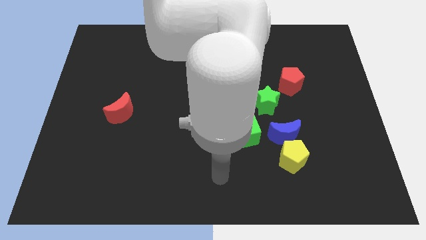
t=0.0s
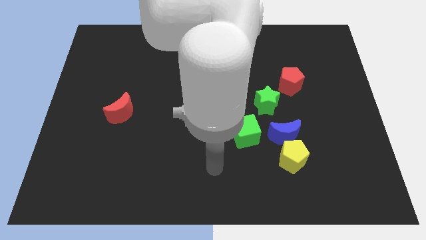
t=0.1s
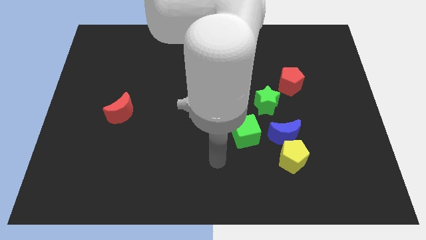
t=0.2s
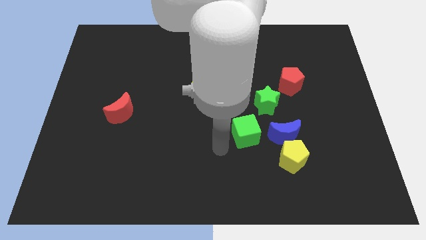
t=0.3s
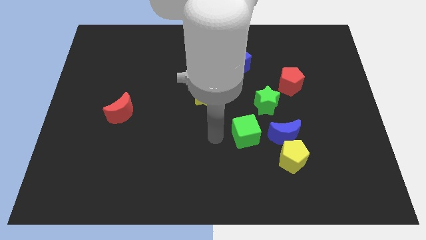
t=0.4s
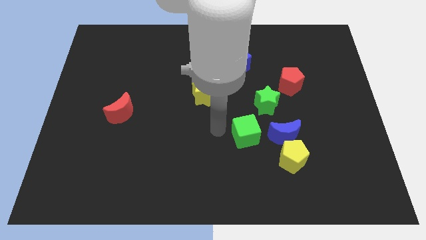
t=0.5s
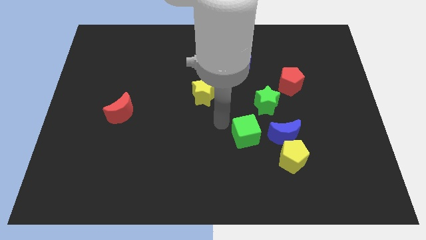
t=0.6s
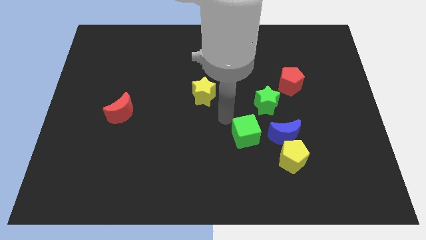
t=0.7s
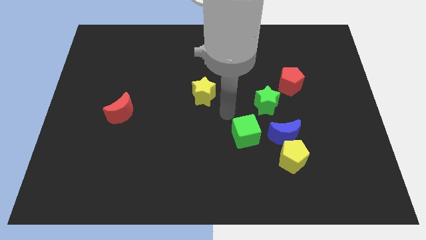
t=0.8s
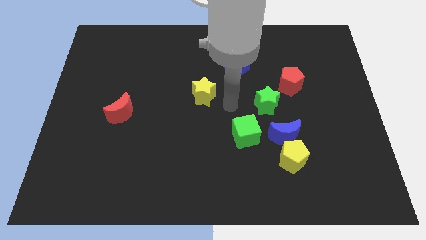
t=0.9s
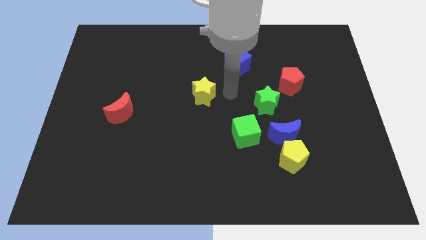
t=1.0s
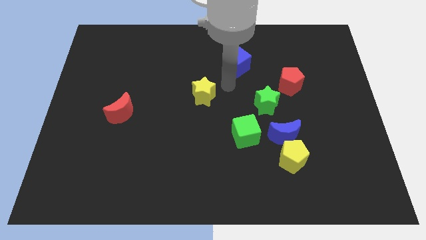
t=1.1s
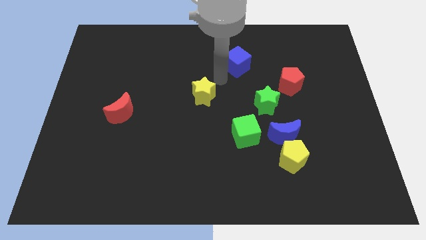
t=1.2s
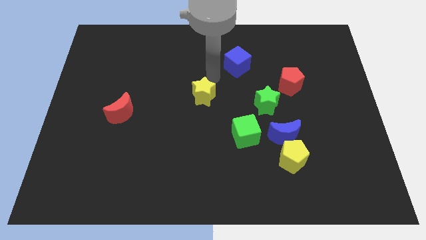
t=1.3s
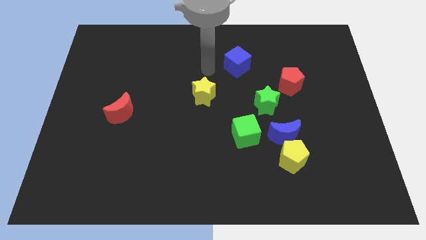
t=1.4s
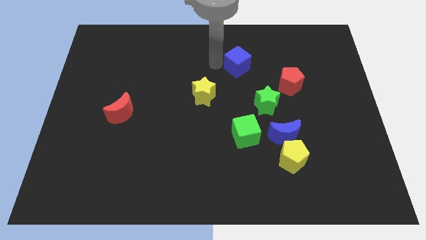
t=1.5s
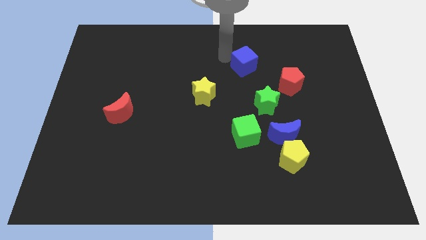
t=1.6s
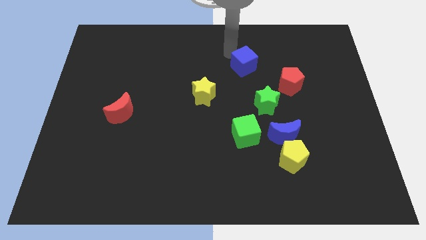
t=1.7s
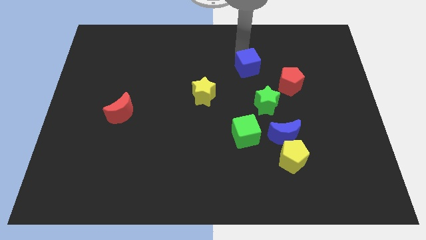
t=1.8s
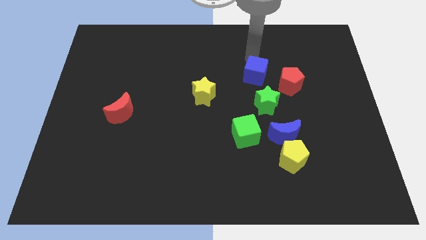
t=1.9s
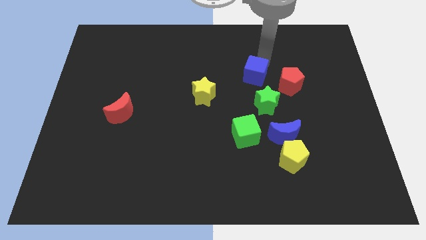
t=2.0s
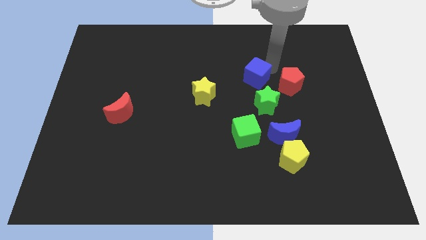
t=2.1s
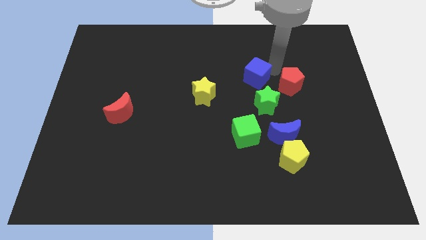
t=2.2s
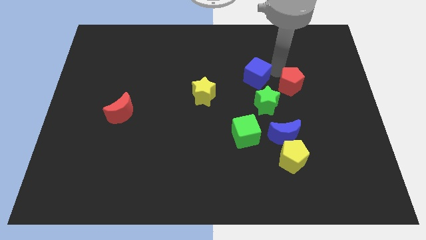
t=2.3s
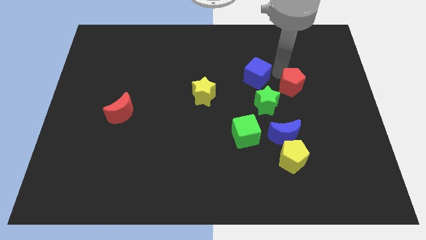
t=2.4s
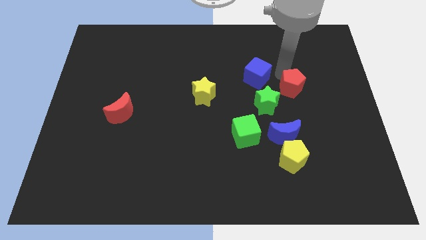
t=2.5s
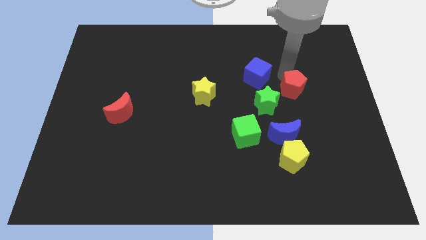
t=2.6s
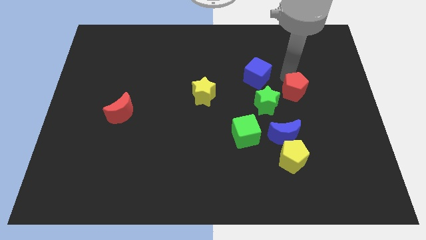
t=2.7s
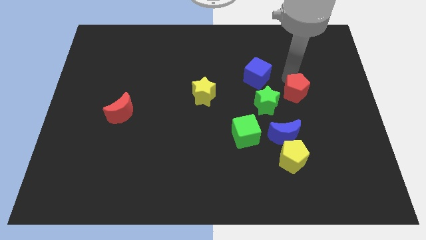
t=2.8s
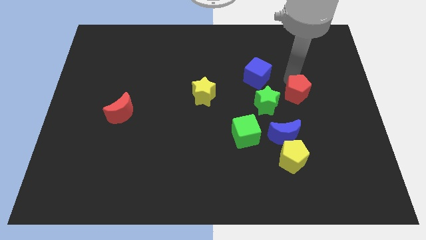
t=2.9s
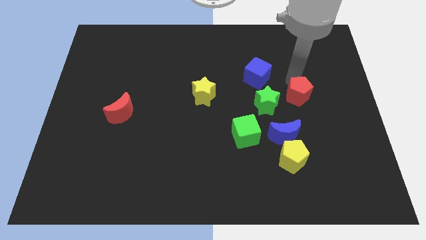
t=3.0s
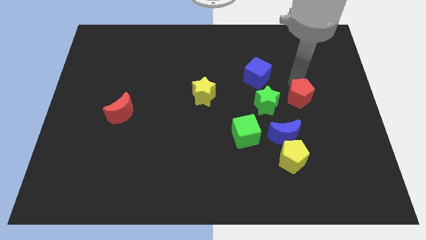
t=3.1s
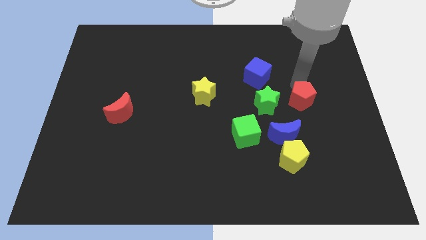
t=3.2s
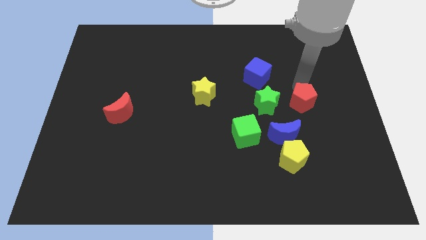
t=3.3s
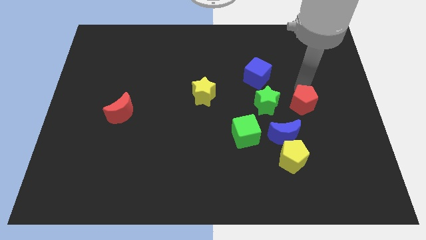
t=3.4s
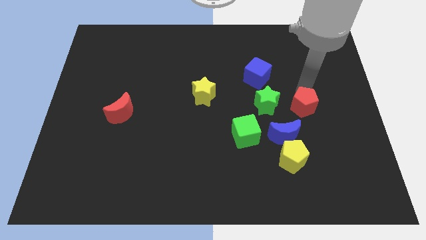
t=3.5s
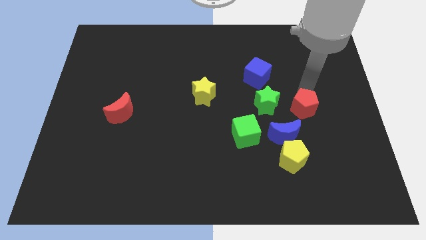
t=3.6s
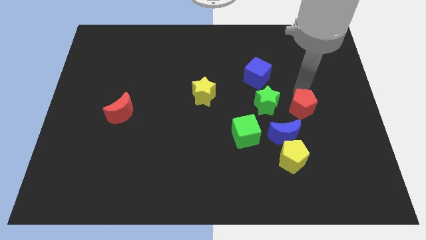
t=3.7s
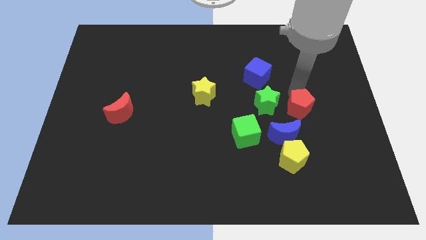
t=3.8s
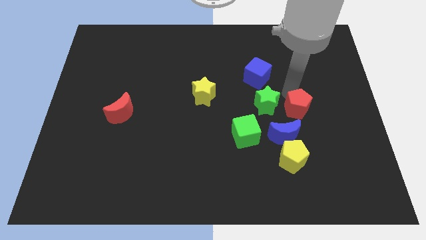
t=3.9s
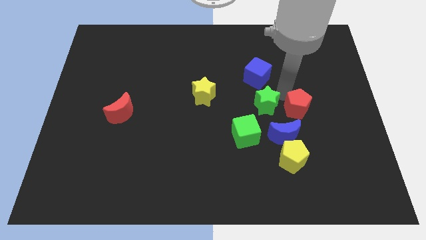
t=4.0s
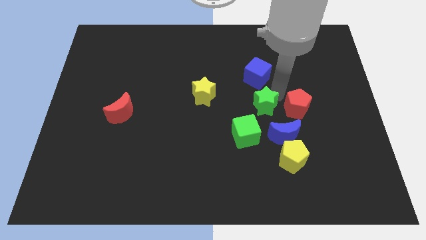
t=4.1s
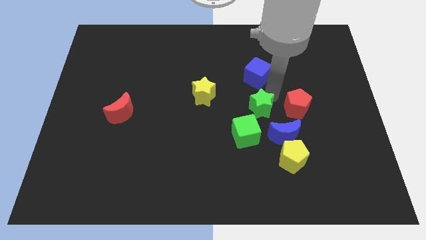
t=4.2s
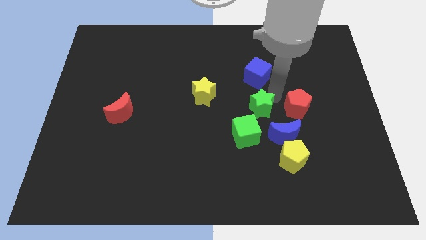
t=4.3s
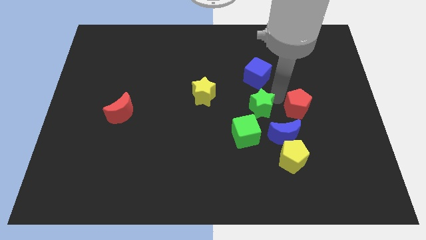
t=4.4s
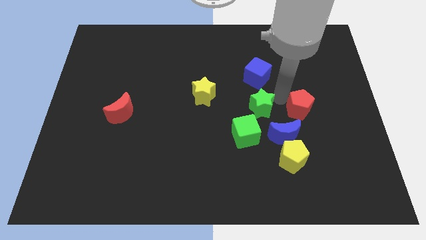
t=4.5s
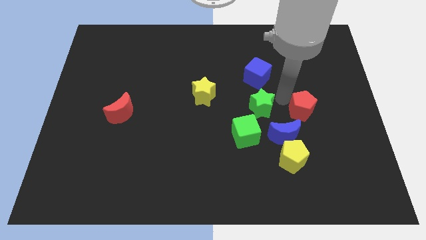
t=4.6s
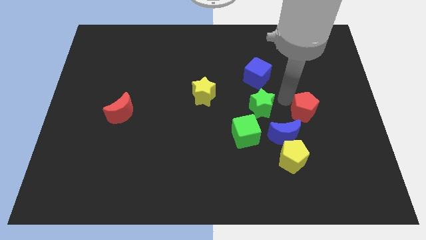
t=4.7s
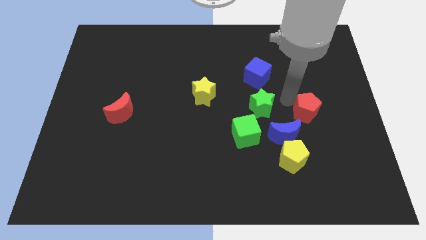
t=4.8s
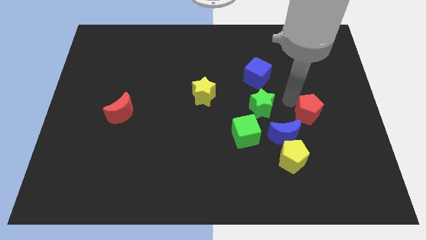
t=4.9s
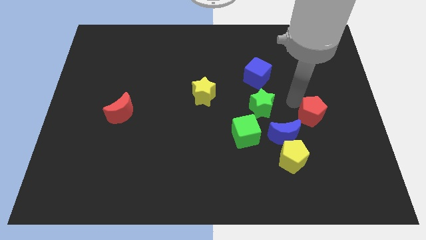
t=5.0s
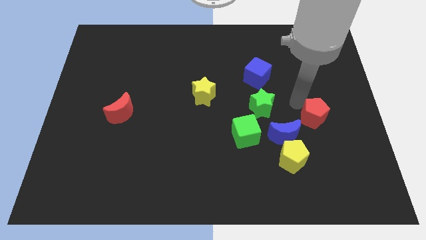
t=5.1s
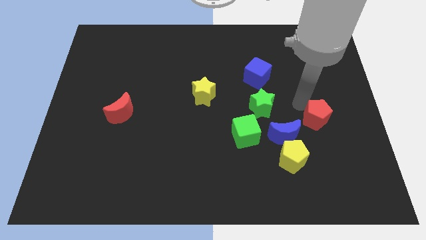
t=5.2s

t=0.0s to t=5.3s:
push the red pentagon to the right side of the blue moon

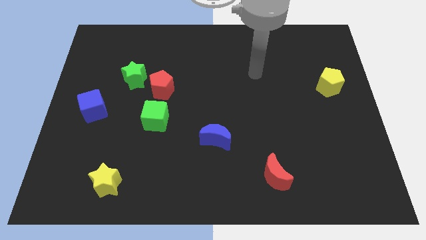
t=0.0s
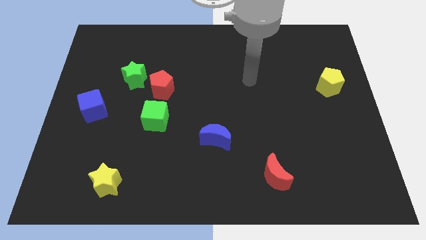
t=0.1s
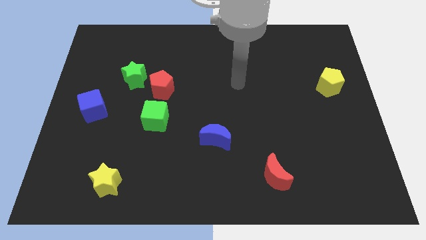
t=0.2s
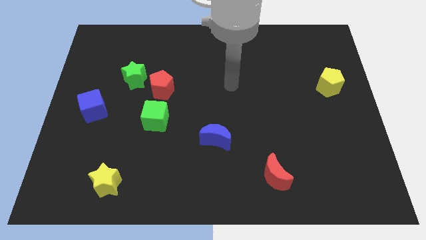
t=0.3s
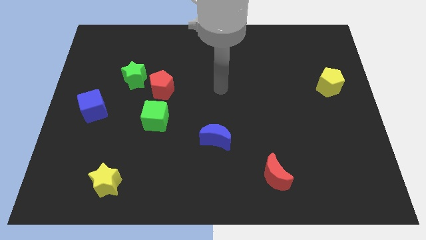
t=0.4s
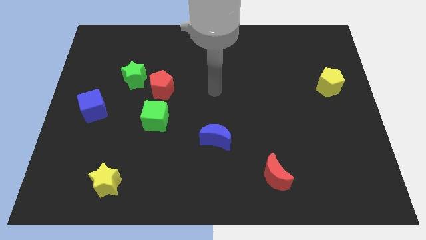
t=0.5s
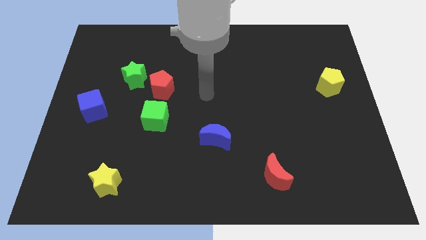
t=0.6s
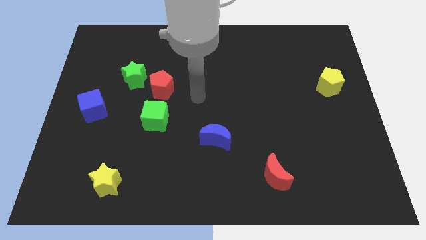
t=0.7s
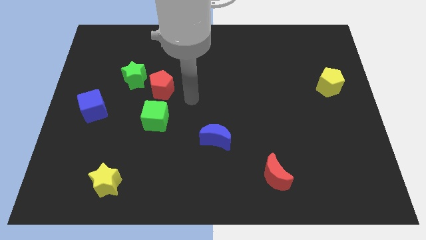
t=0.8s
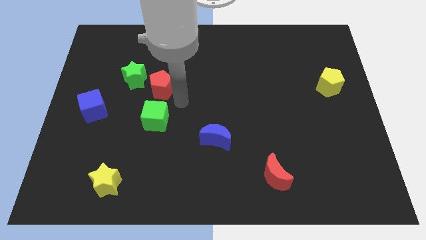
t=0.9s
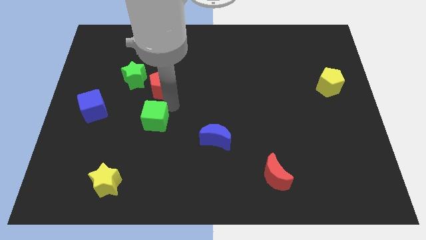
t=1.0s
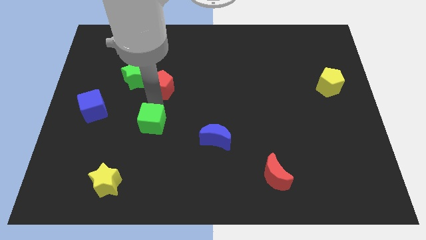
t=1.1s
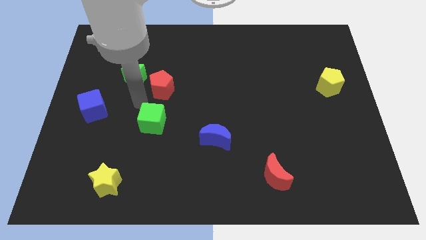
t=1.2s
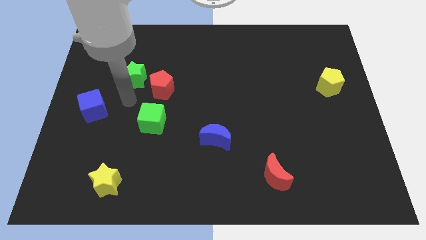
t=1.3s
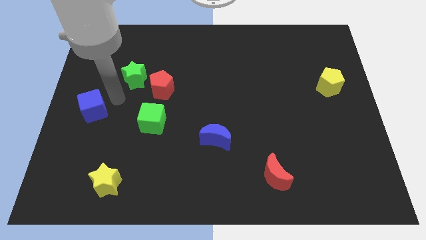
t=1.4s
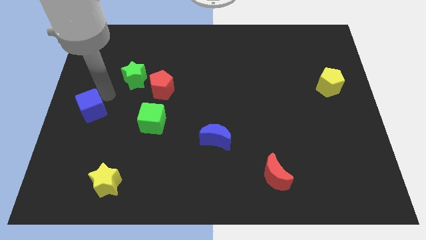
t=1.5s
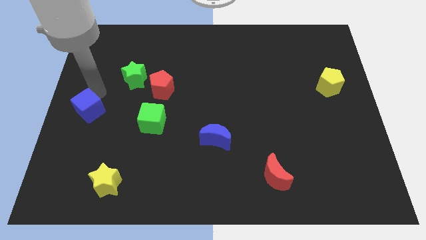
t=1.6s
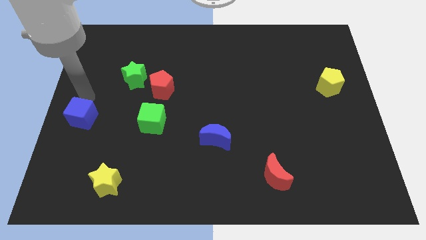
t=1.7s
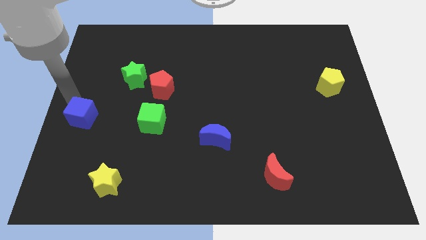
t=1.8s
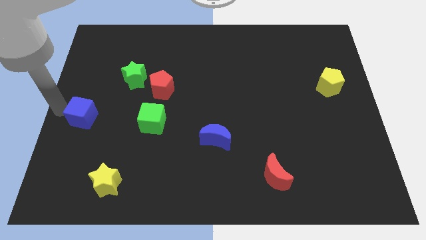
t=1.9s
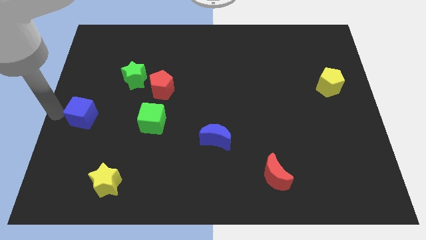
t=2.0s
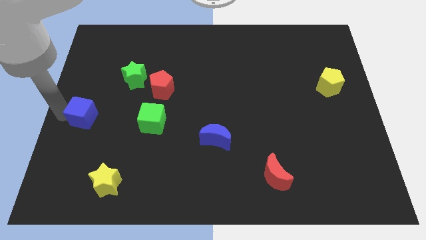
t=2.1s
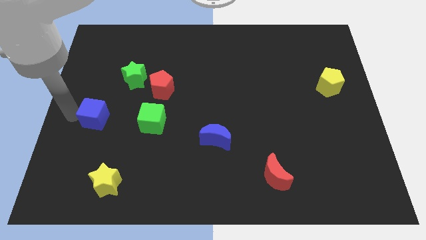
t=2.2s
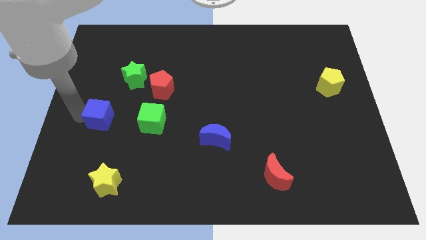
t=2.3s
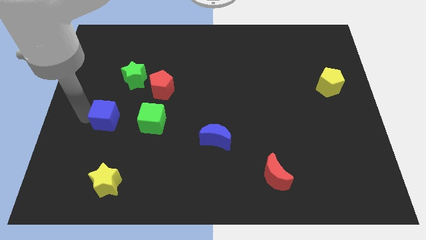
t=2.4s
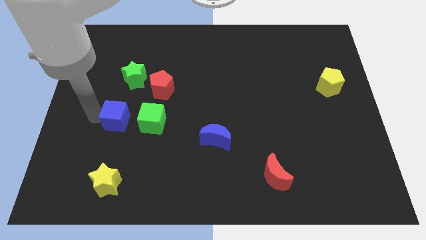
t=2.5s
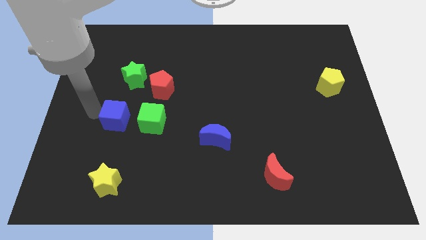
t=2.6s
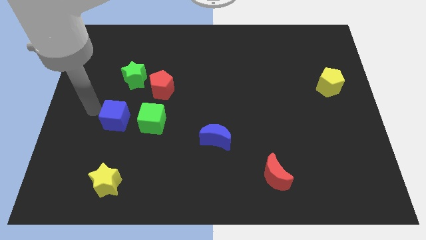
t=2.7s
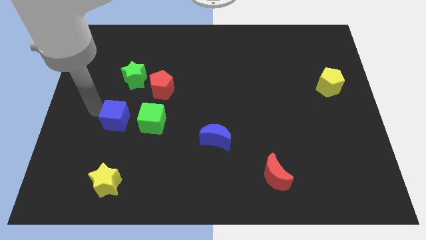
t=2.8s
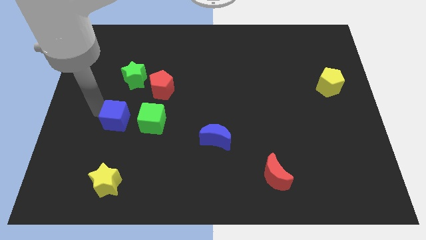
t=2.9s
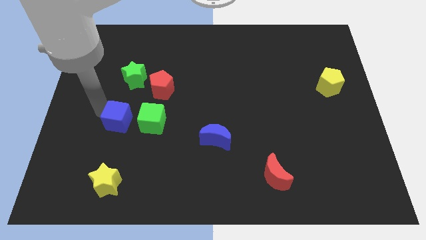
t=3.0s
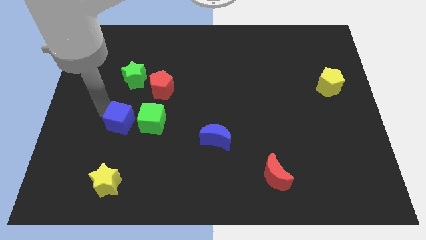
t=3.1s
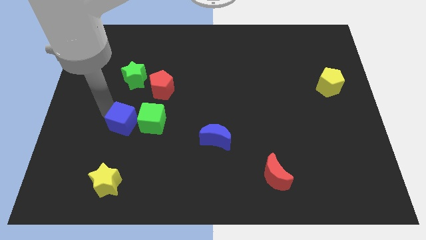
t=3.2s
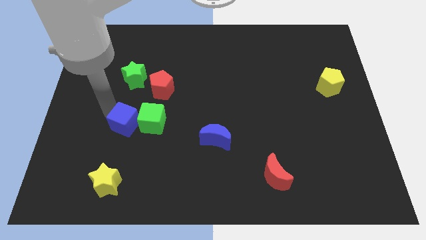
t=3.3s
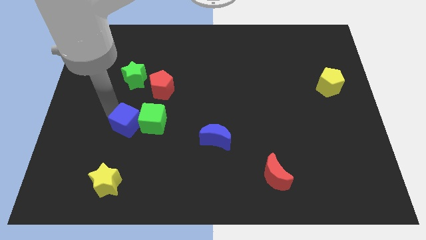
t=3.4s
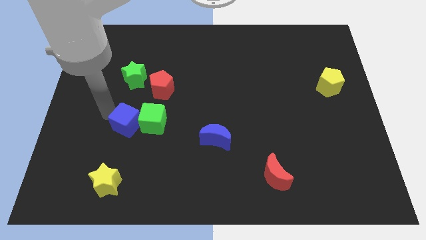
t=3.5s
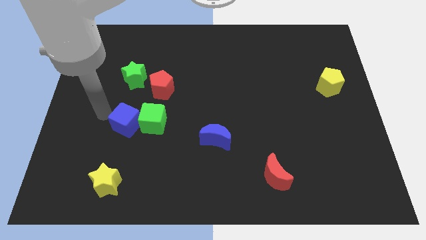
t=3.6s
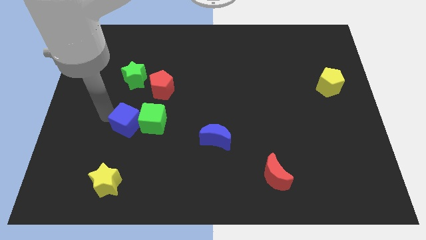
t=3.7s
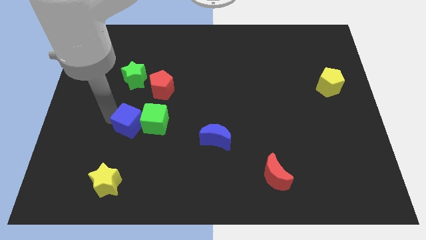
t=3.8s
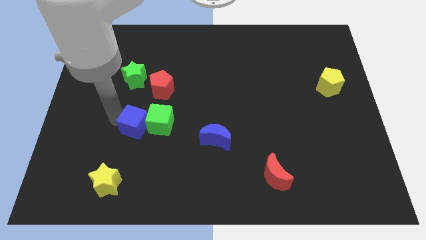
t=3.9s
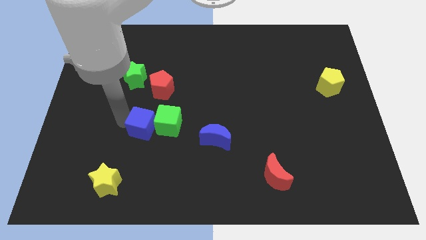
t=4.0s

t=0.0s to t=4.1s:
put the blue cube to the bottom of the red pentagon
